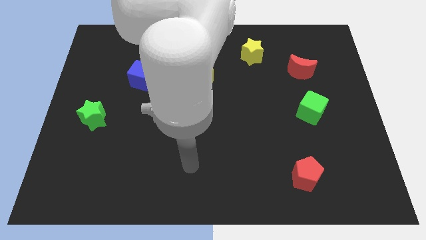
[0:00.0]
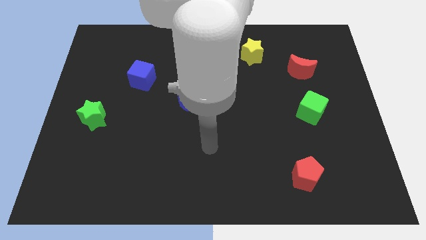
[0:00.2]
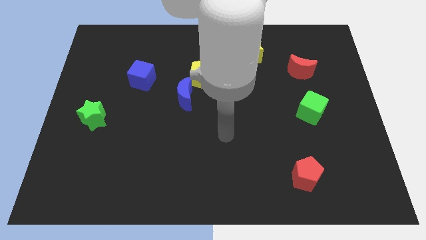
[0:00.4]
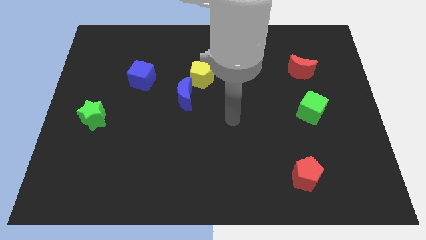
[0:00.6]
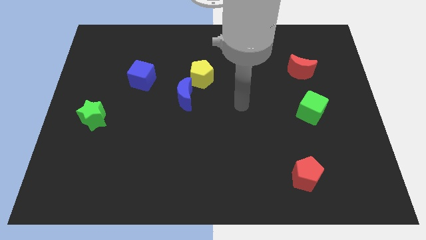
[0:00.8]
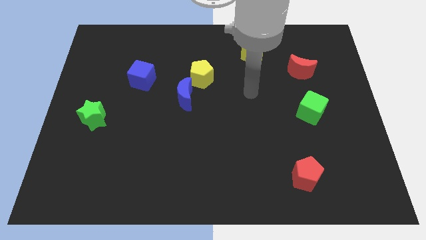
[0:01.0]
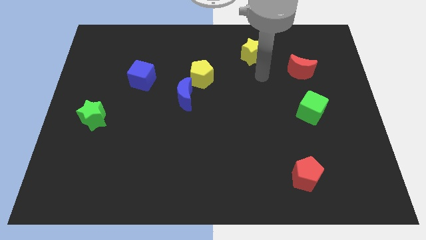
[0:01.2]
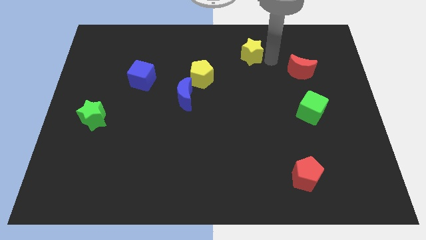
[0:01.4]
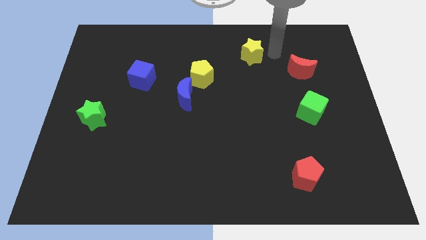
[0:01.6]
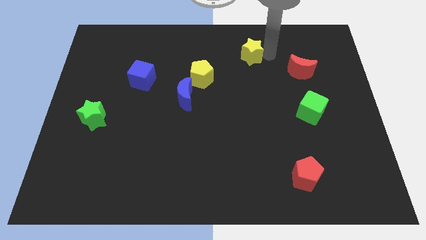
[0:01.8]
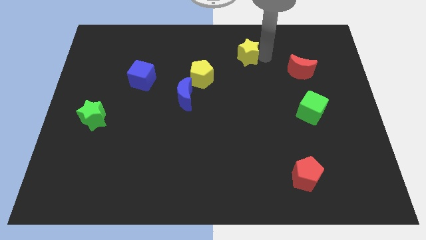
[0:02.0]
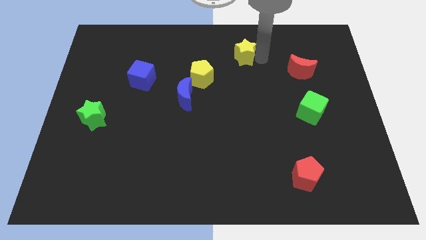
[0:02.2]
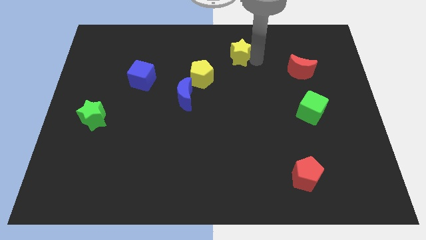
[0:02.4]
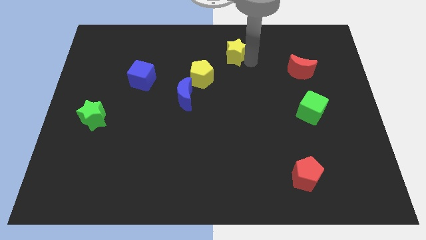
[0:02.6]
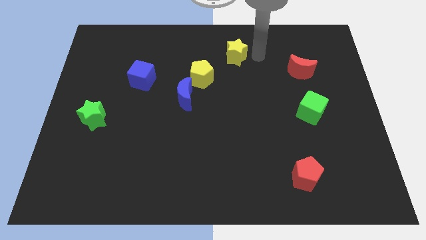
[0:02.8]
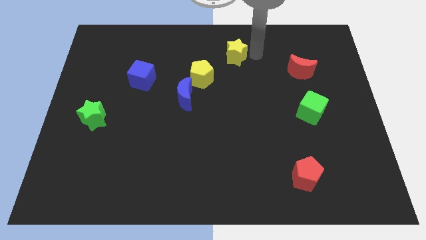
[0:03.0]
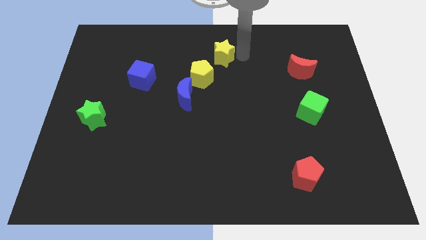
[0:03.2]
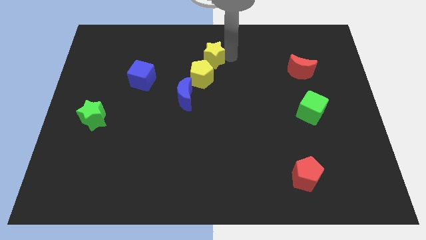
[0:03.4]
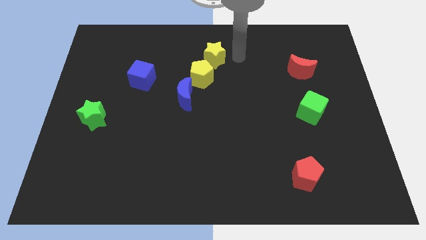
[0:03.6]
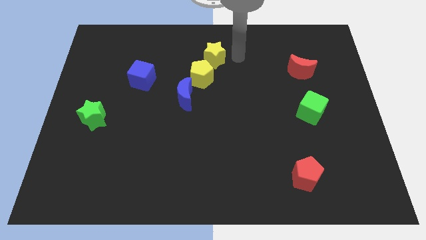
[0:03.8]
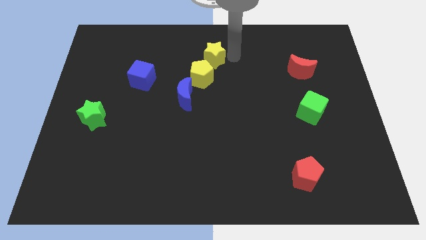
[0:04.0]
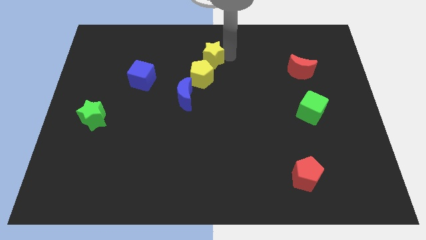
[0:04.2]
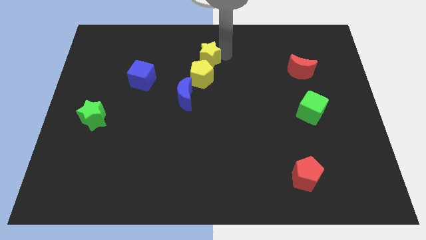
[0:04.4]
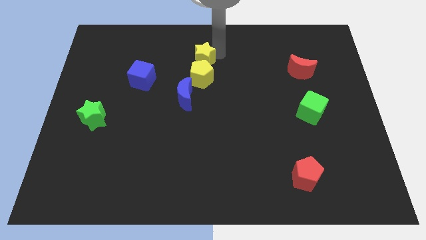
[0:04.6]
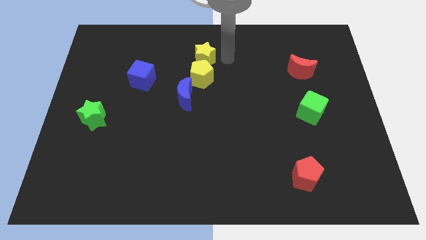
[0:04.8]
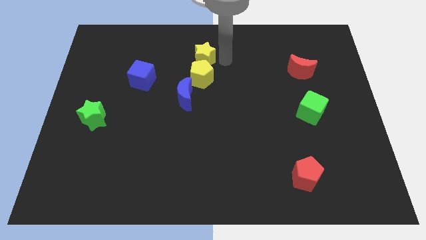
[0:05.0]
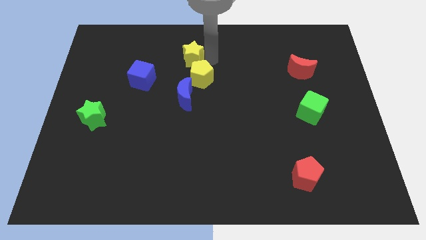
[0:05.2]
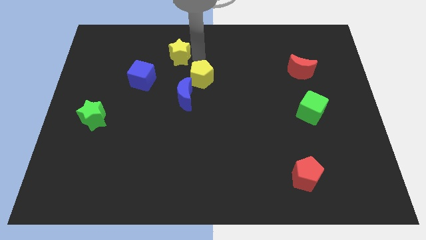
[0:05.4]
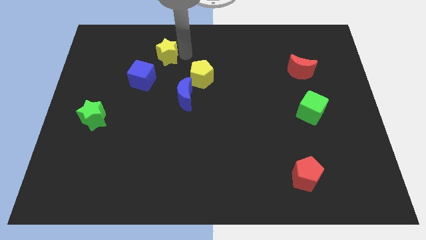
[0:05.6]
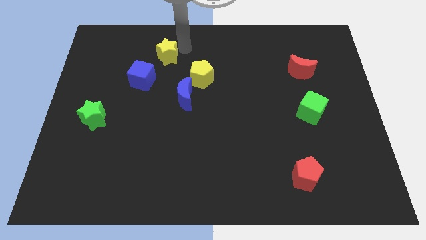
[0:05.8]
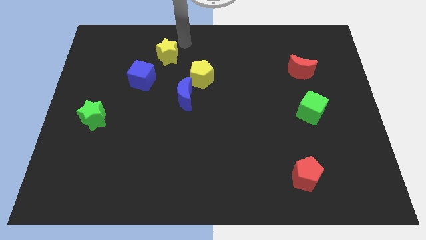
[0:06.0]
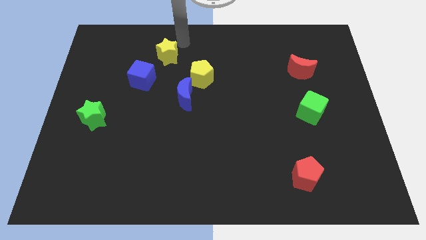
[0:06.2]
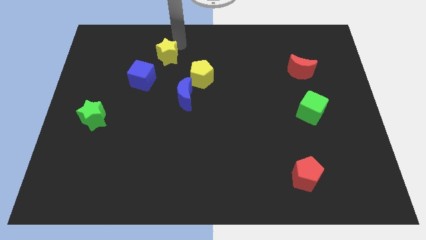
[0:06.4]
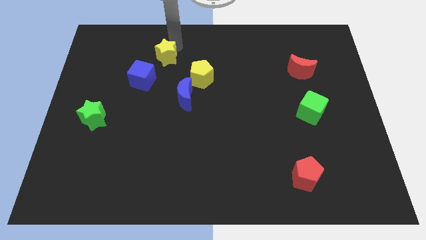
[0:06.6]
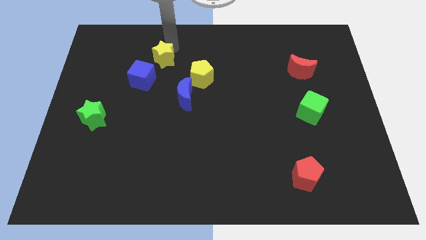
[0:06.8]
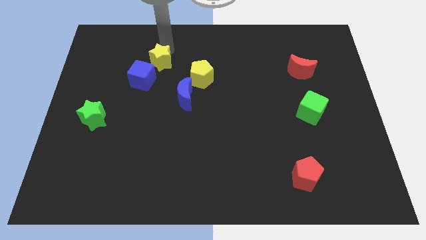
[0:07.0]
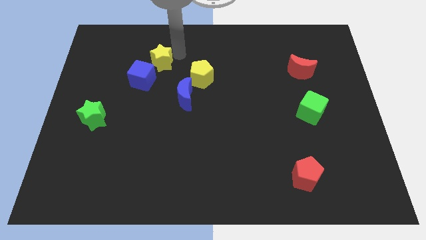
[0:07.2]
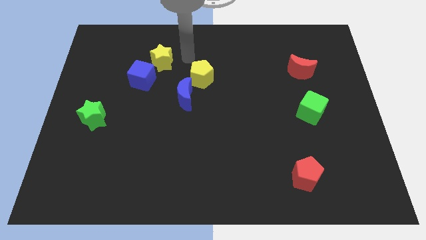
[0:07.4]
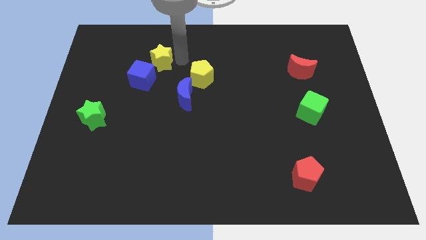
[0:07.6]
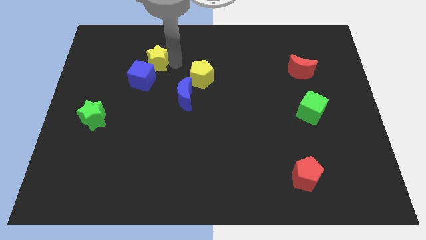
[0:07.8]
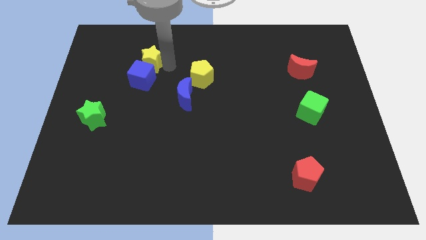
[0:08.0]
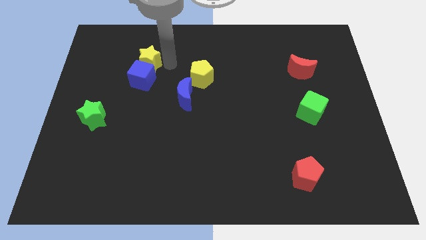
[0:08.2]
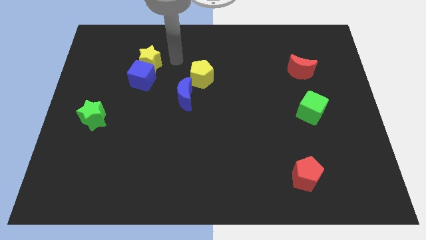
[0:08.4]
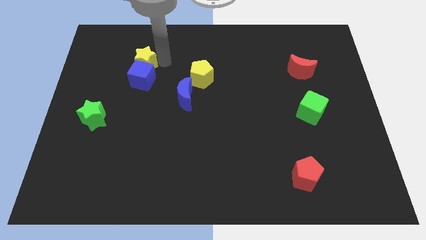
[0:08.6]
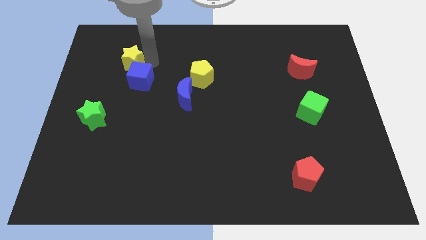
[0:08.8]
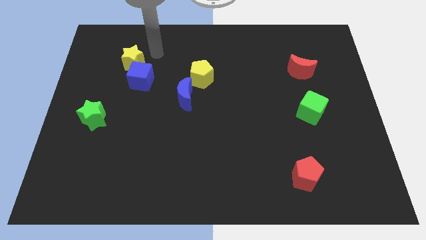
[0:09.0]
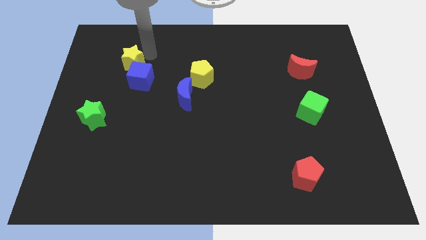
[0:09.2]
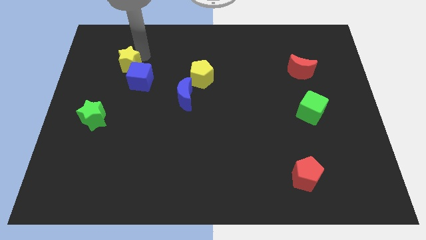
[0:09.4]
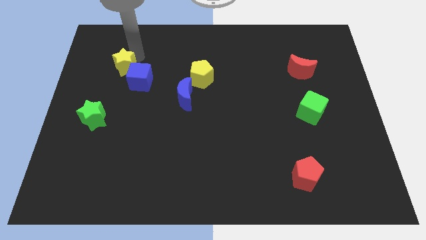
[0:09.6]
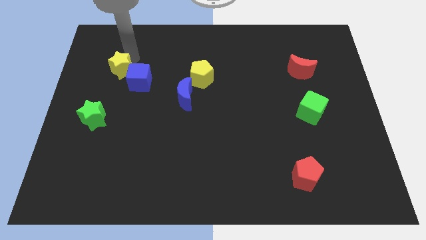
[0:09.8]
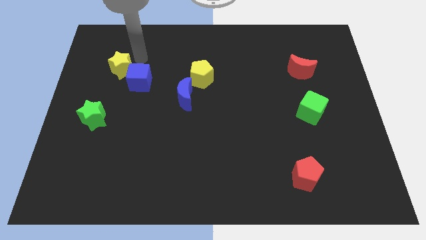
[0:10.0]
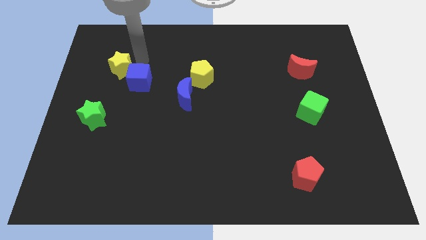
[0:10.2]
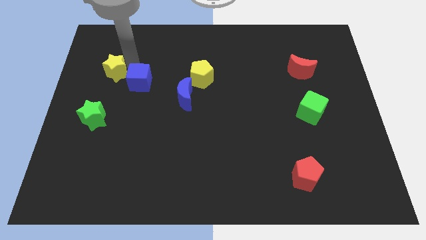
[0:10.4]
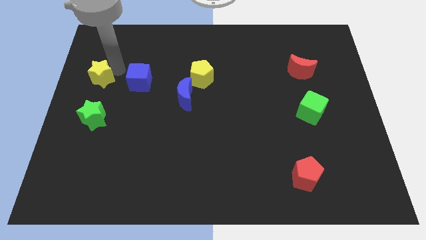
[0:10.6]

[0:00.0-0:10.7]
slide the yellow star to the center left
